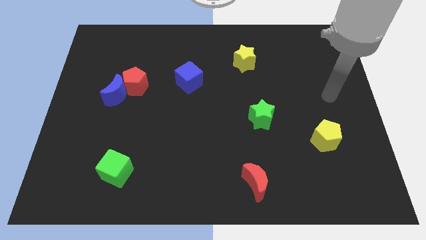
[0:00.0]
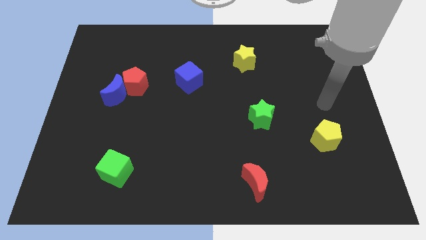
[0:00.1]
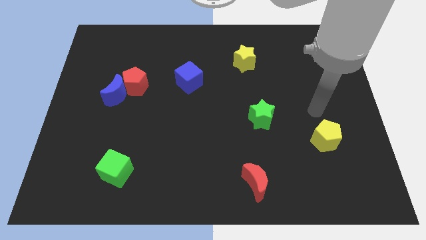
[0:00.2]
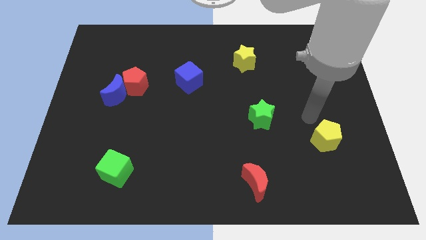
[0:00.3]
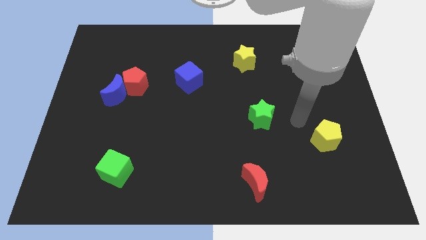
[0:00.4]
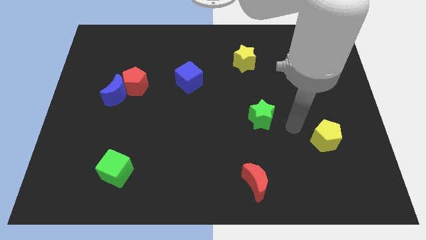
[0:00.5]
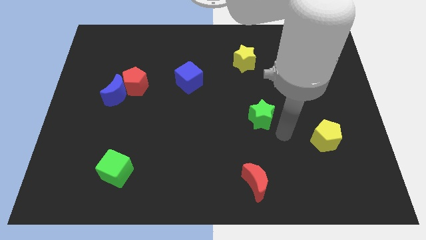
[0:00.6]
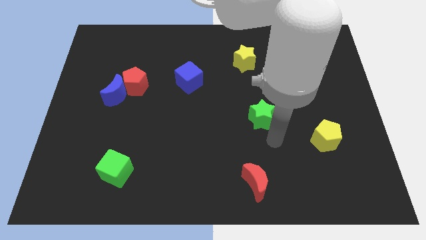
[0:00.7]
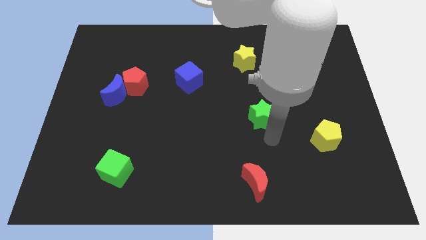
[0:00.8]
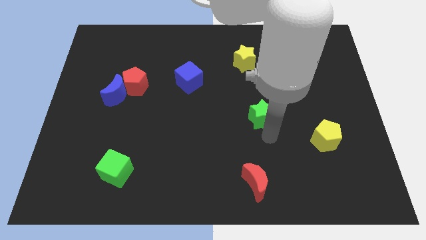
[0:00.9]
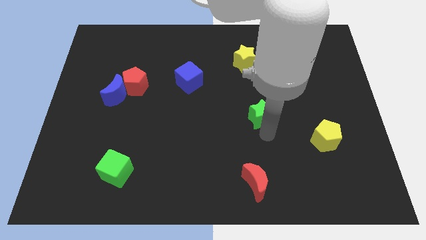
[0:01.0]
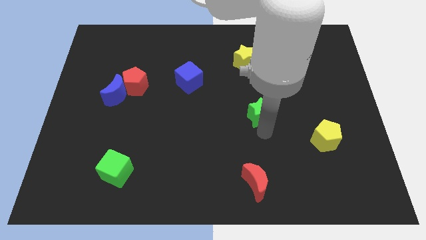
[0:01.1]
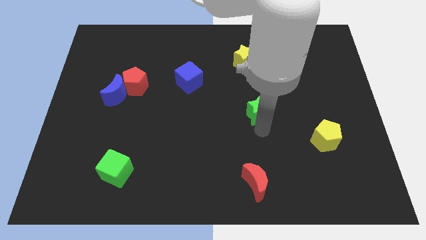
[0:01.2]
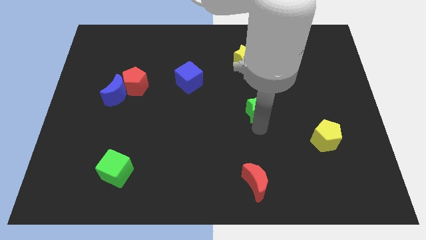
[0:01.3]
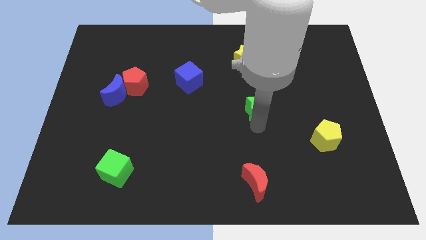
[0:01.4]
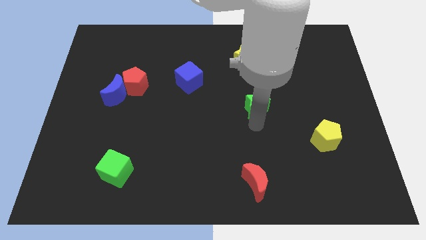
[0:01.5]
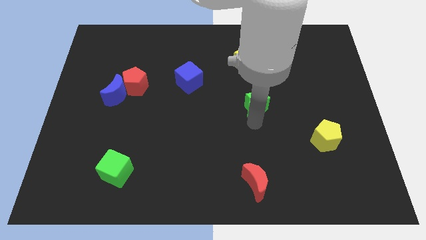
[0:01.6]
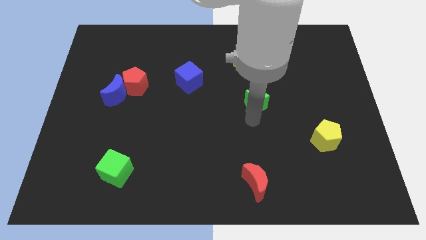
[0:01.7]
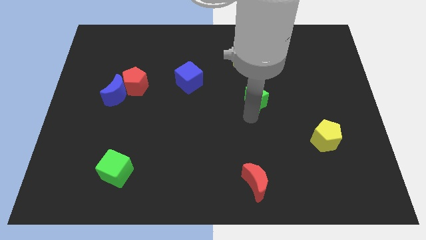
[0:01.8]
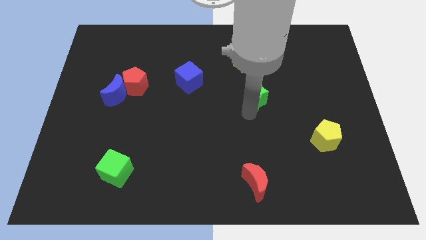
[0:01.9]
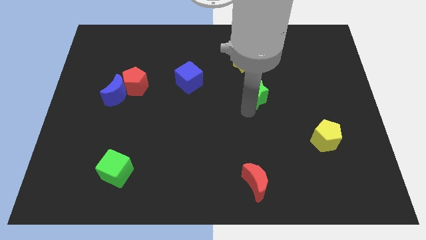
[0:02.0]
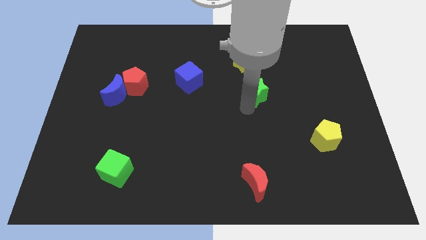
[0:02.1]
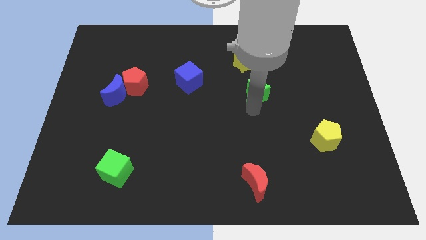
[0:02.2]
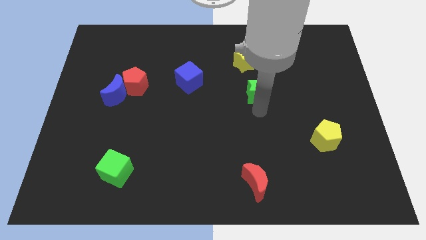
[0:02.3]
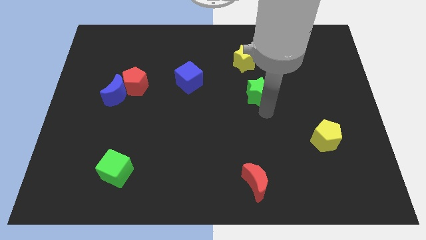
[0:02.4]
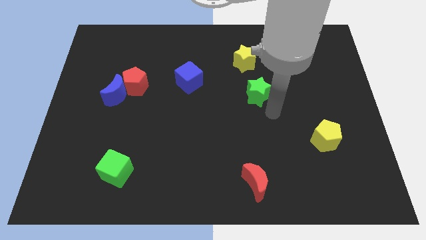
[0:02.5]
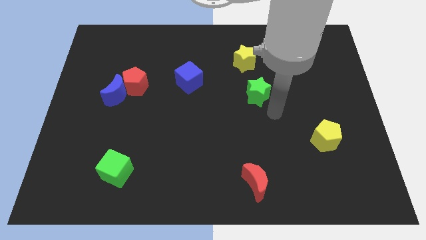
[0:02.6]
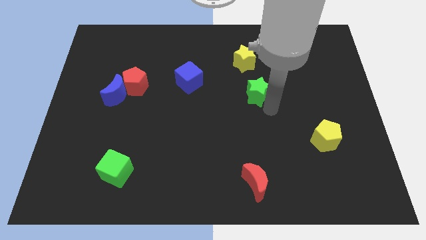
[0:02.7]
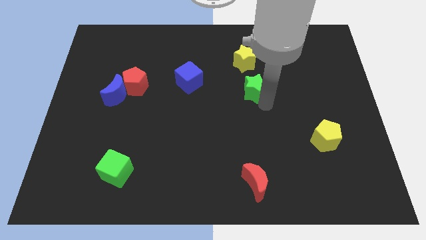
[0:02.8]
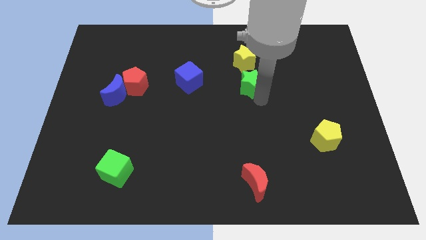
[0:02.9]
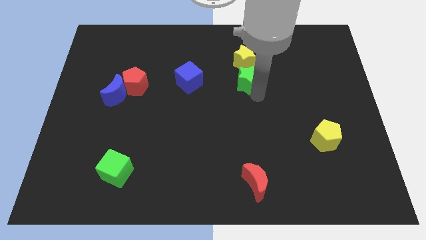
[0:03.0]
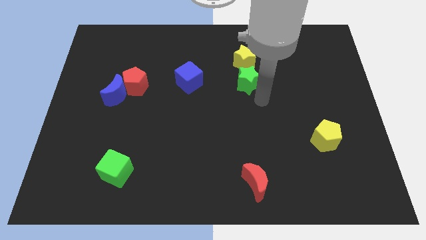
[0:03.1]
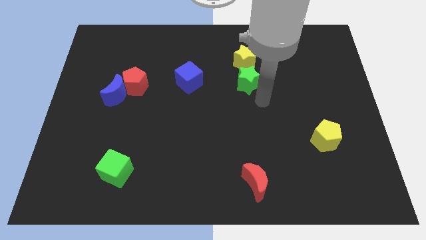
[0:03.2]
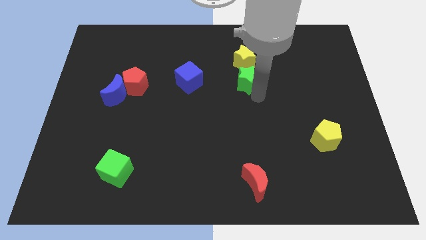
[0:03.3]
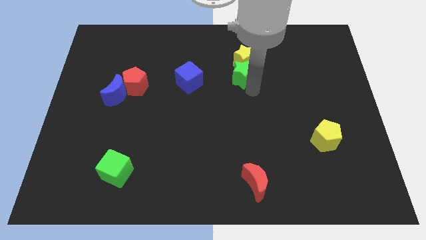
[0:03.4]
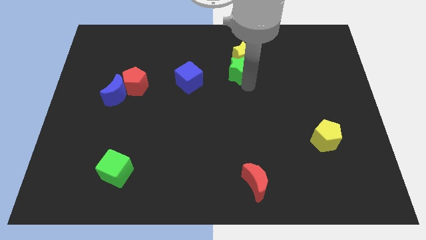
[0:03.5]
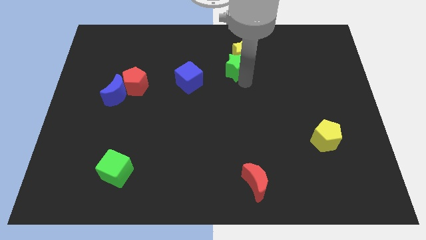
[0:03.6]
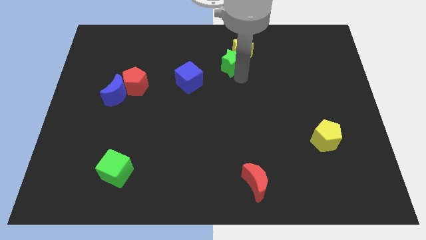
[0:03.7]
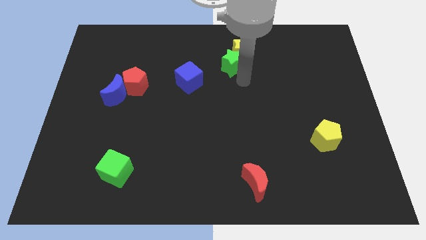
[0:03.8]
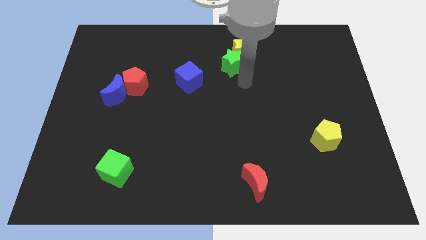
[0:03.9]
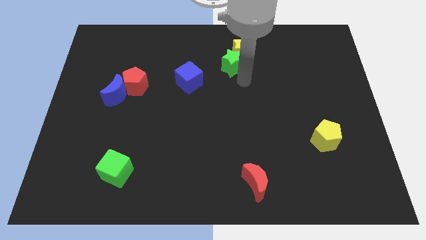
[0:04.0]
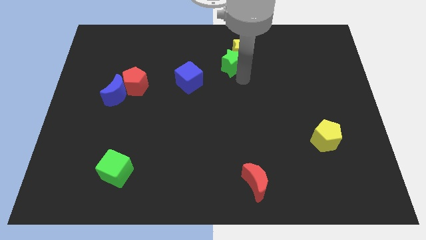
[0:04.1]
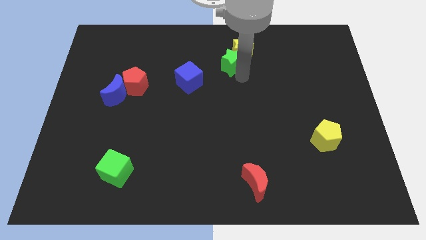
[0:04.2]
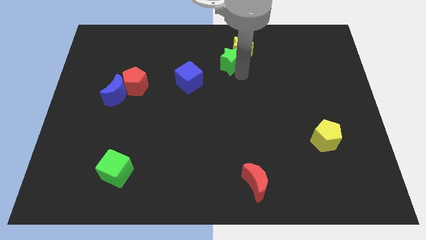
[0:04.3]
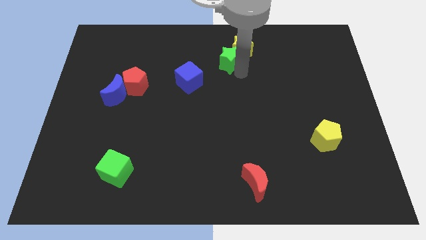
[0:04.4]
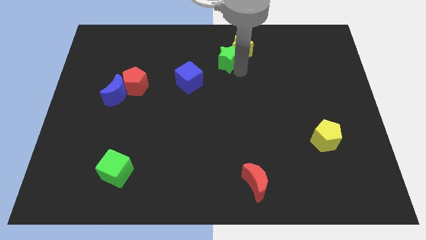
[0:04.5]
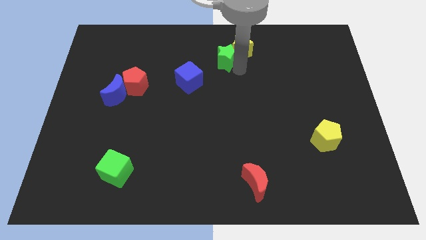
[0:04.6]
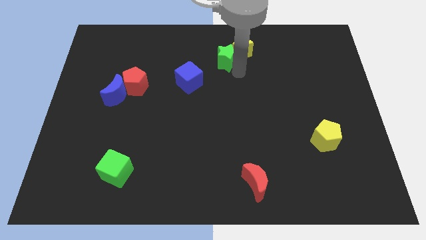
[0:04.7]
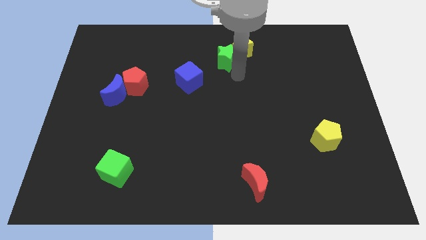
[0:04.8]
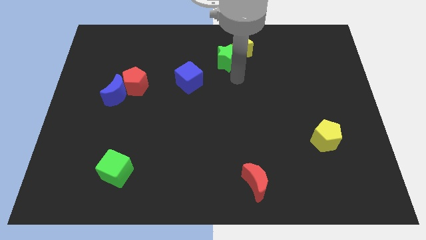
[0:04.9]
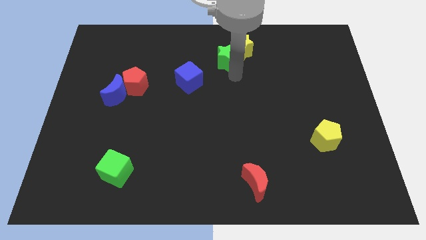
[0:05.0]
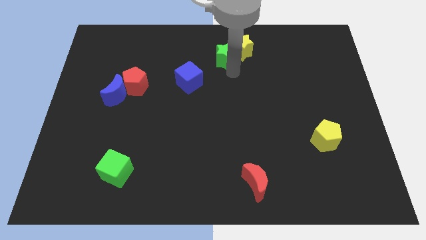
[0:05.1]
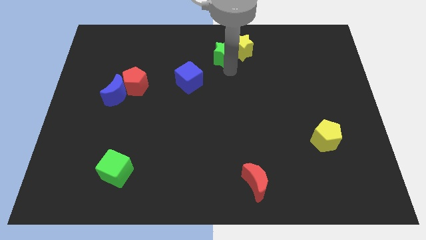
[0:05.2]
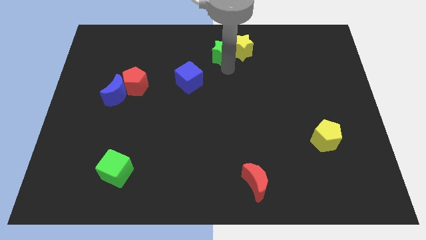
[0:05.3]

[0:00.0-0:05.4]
slide the green star to the towards your base

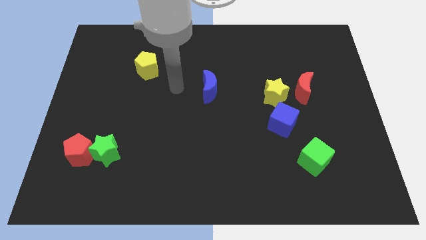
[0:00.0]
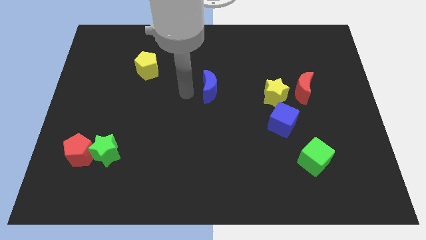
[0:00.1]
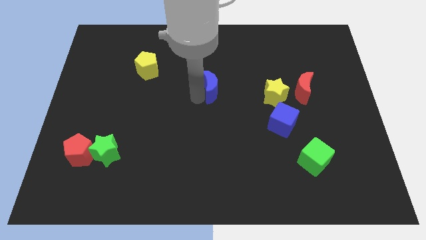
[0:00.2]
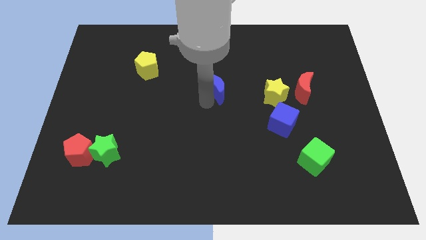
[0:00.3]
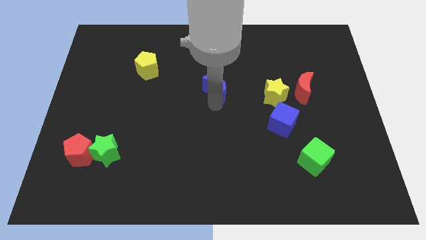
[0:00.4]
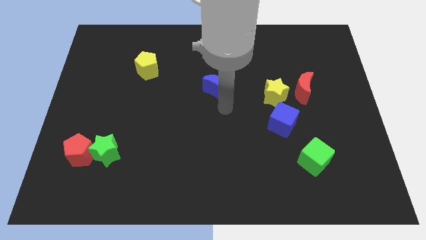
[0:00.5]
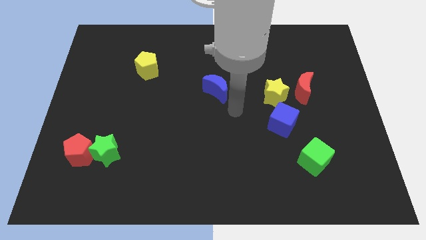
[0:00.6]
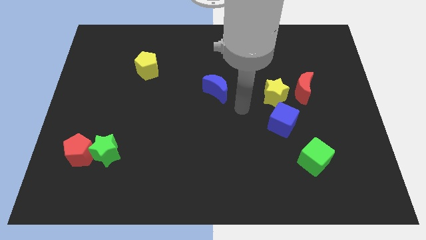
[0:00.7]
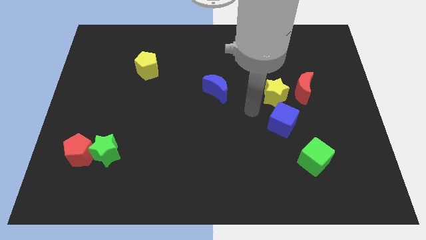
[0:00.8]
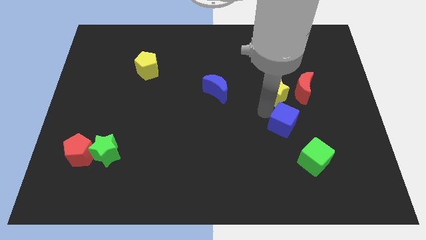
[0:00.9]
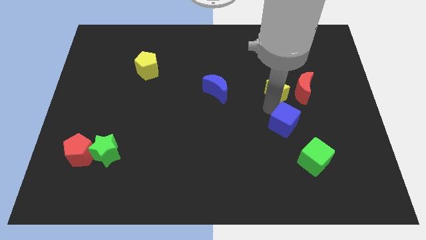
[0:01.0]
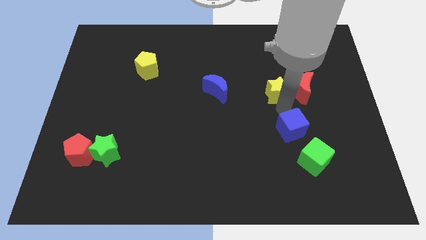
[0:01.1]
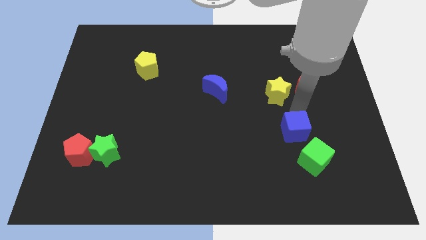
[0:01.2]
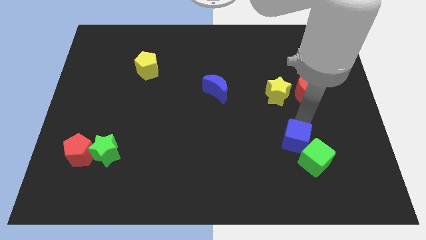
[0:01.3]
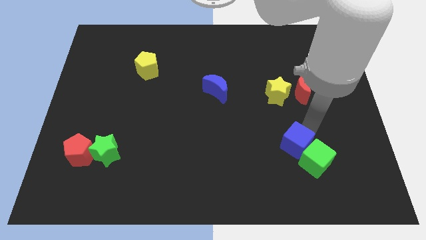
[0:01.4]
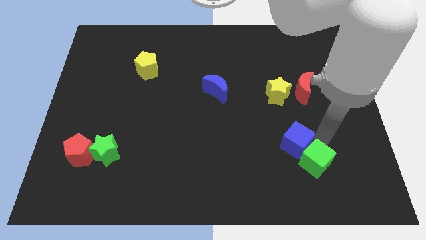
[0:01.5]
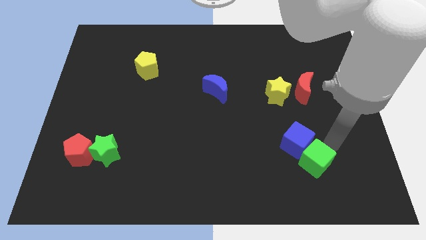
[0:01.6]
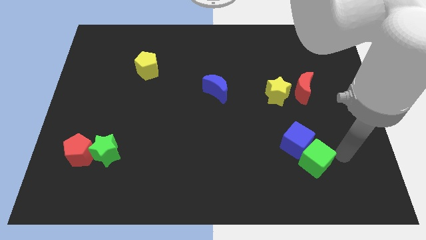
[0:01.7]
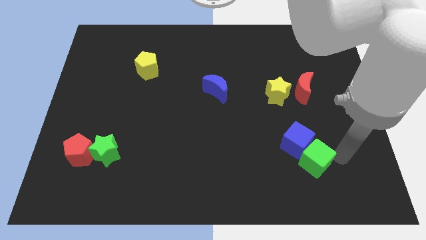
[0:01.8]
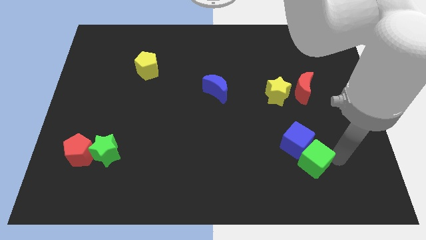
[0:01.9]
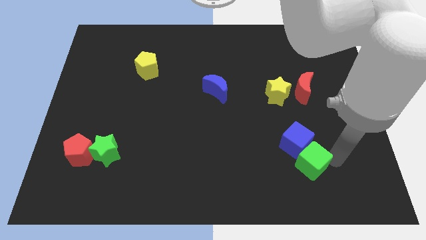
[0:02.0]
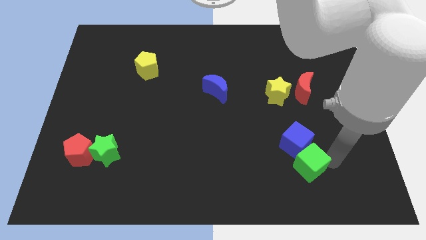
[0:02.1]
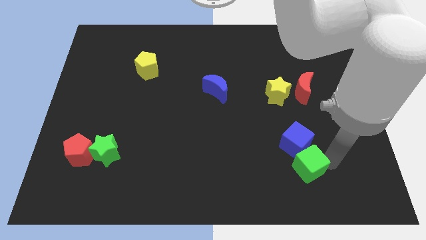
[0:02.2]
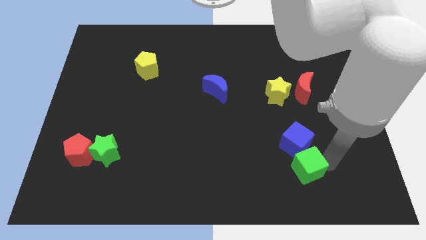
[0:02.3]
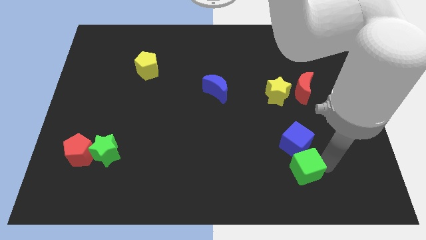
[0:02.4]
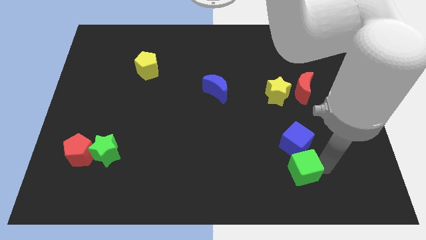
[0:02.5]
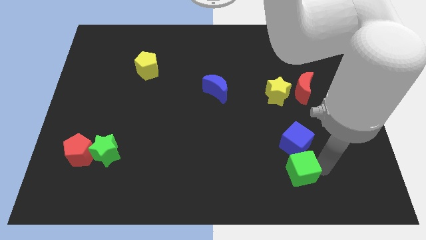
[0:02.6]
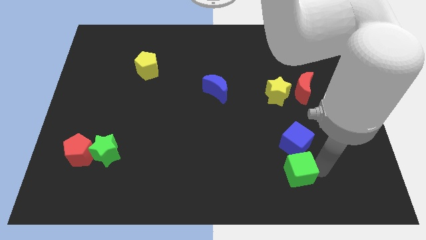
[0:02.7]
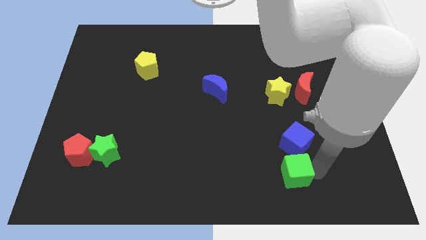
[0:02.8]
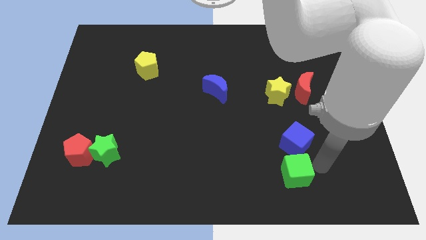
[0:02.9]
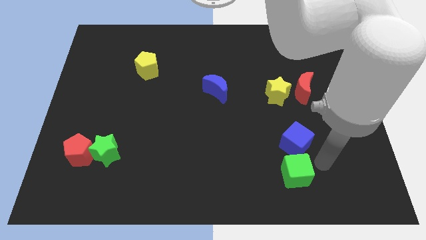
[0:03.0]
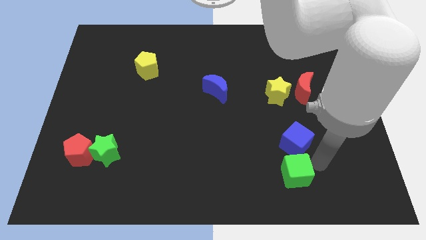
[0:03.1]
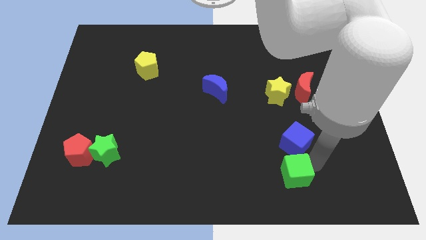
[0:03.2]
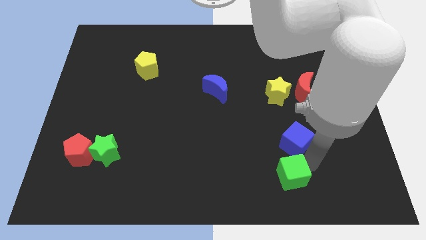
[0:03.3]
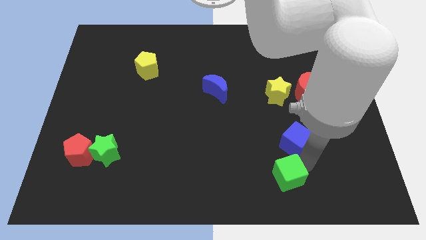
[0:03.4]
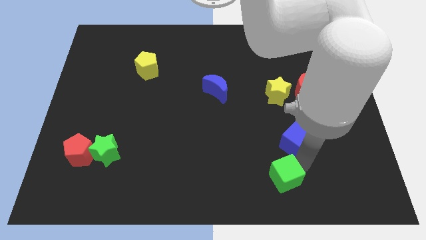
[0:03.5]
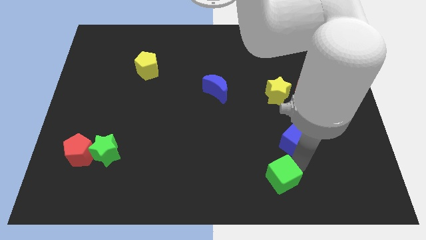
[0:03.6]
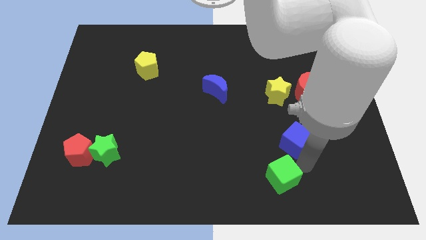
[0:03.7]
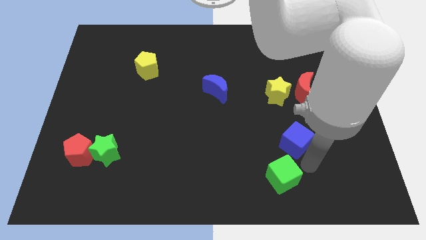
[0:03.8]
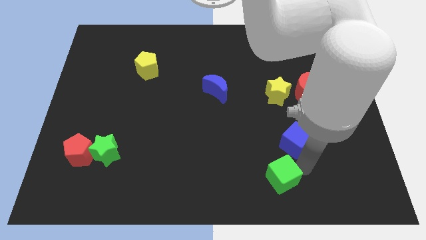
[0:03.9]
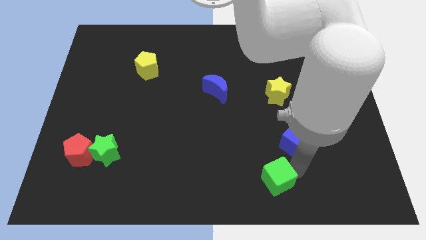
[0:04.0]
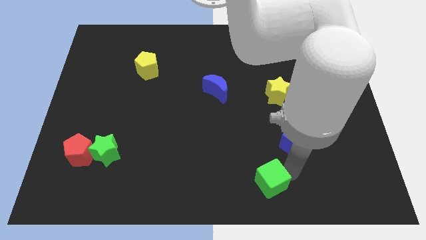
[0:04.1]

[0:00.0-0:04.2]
push the green cube to the bottom
